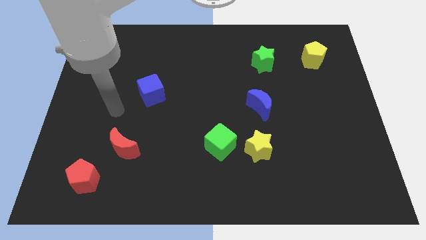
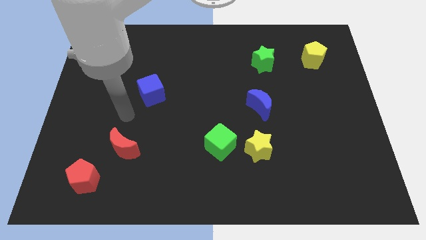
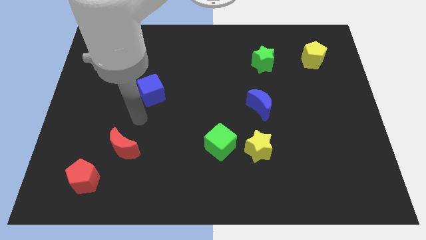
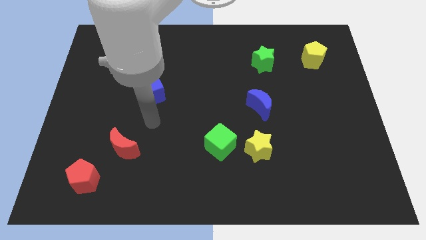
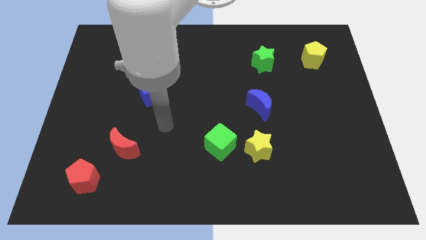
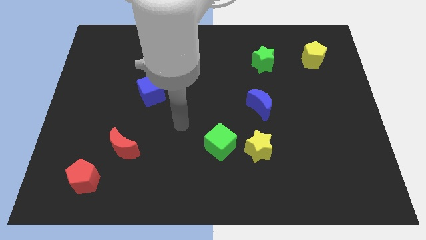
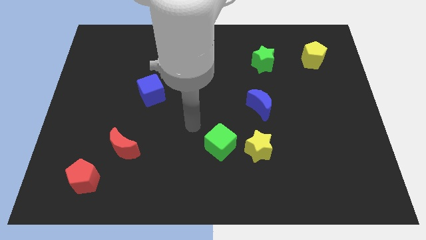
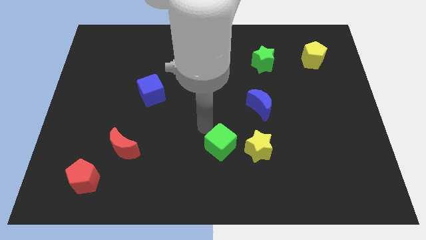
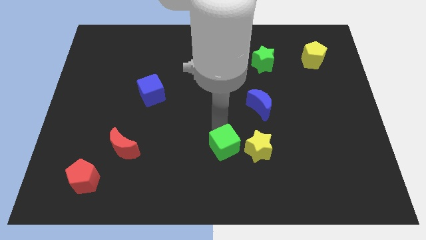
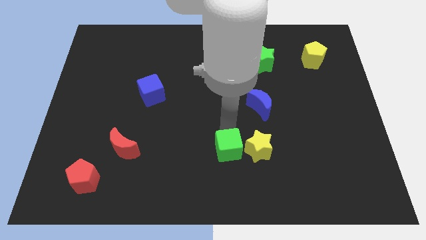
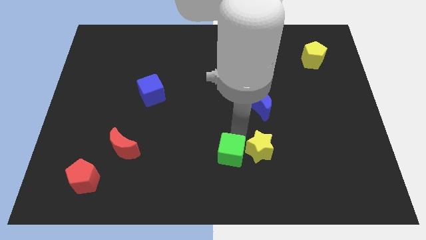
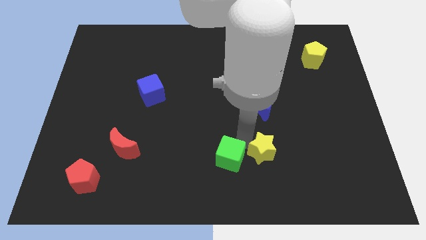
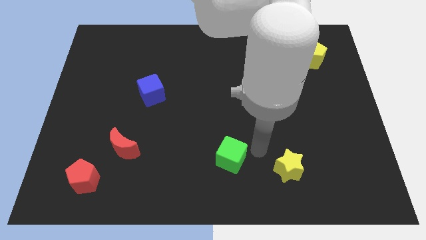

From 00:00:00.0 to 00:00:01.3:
separate the green cube from the yellow star

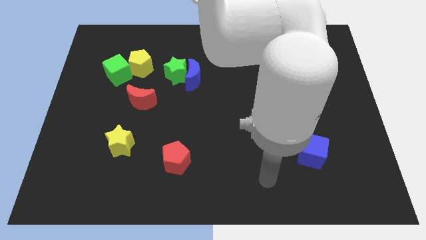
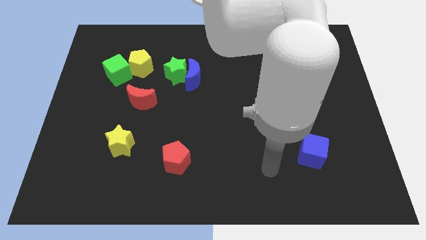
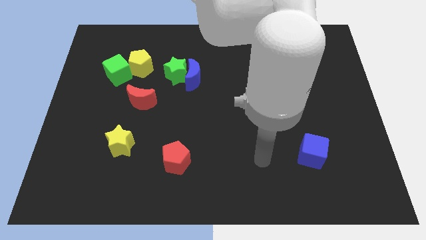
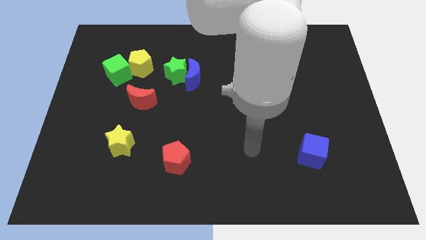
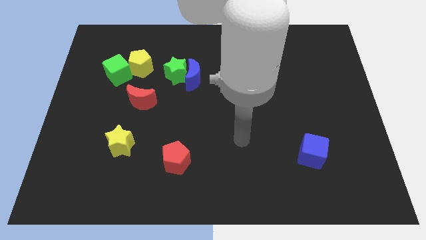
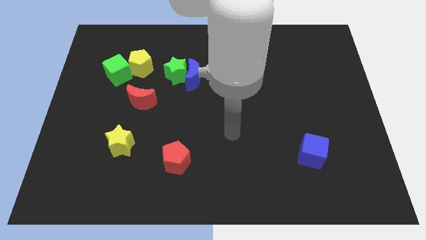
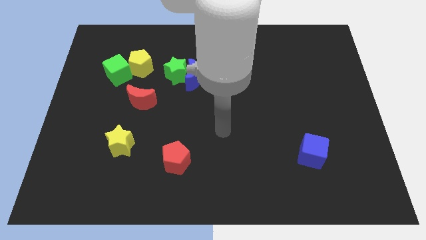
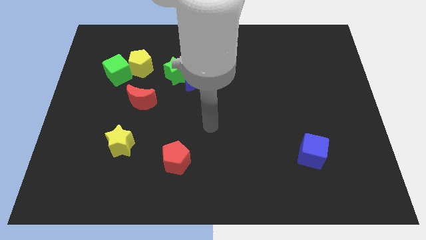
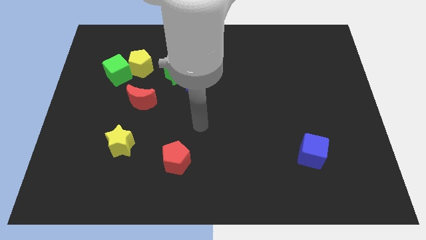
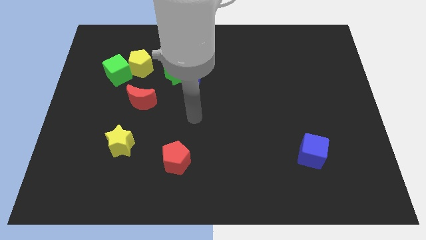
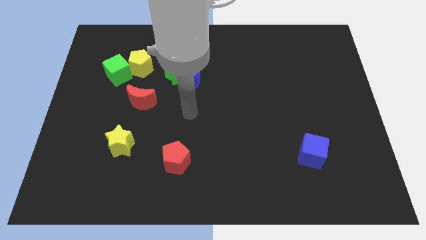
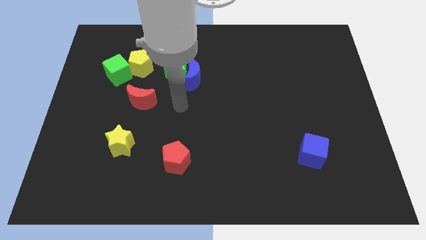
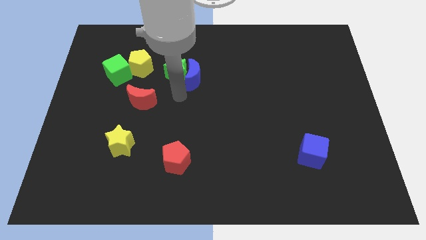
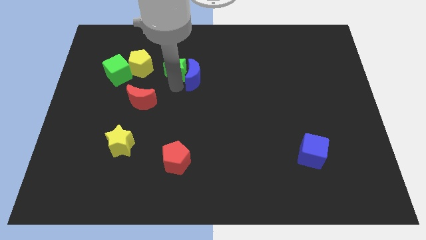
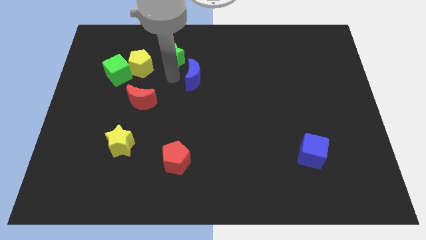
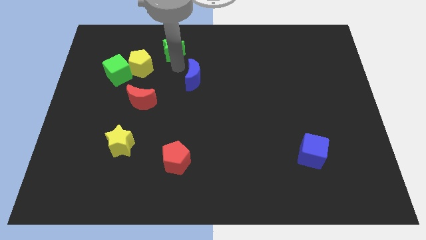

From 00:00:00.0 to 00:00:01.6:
pull the blue moon apart from the green star

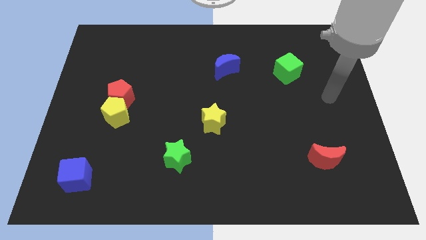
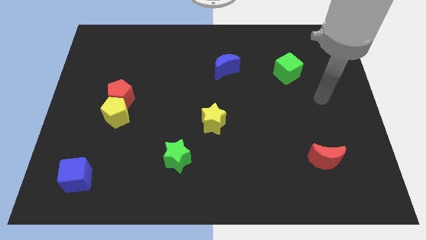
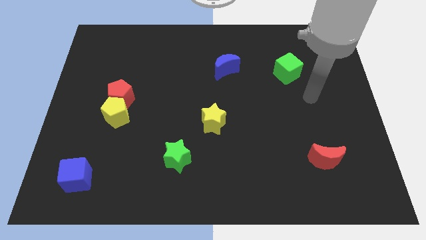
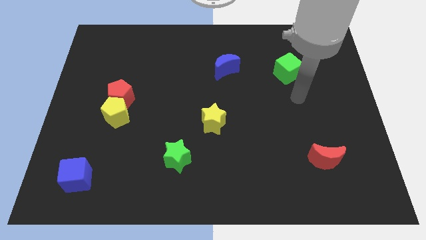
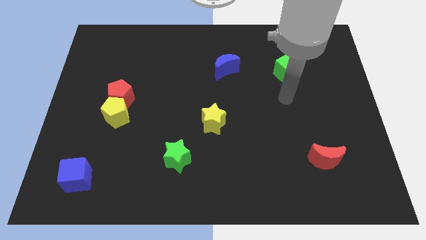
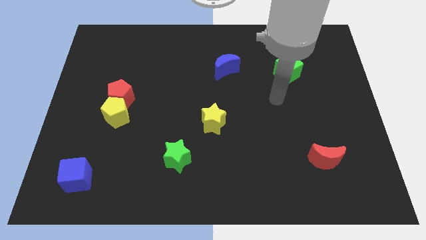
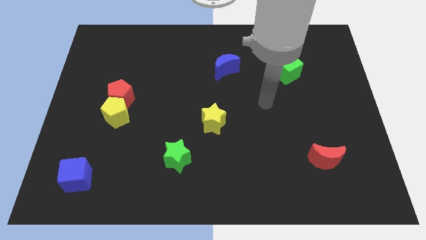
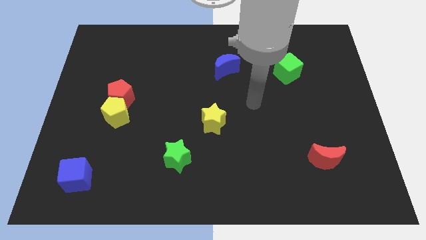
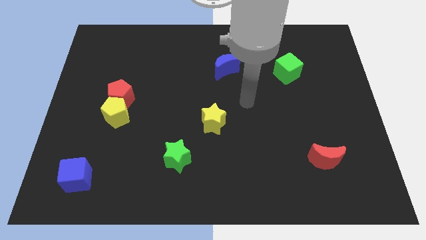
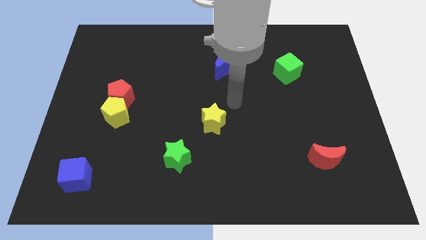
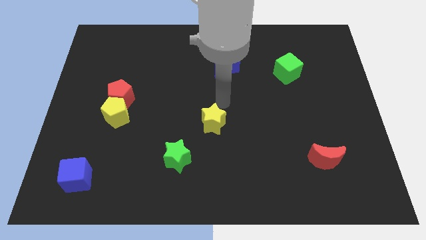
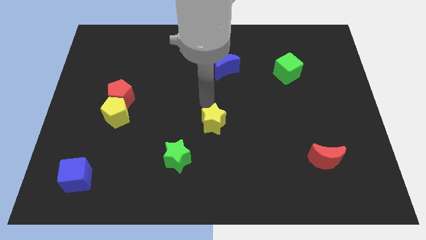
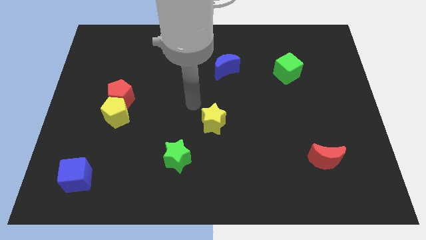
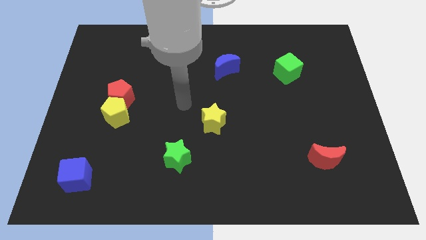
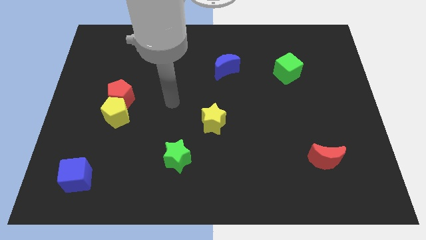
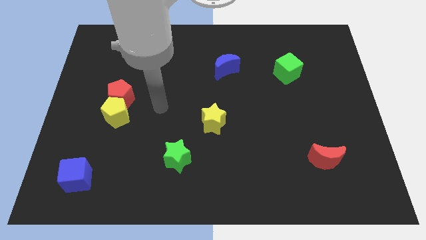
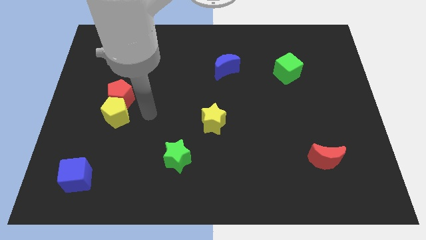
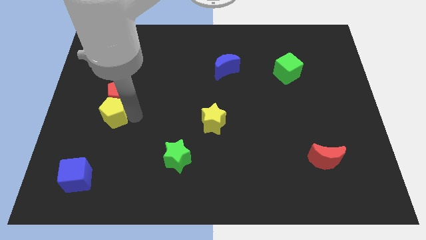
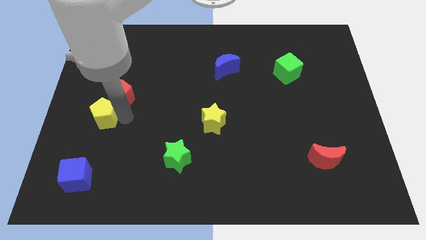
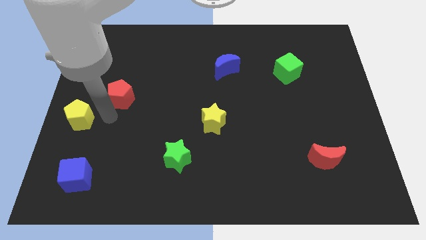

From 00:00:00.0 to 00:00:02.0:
pull the red pentagon apart from the yellow pentagon

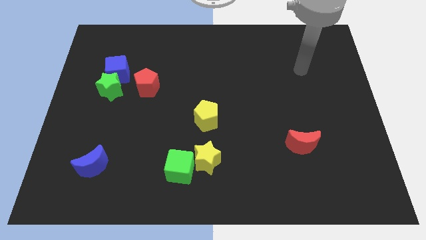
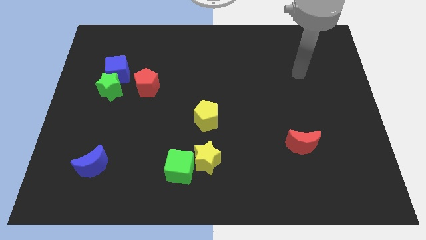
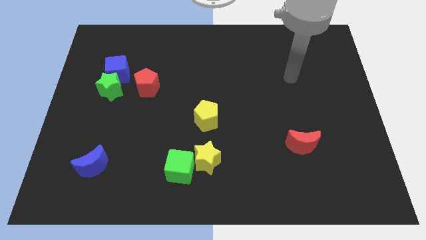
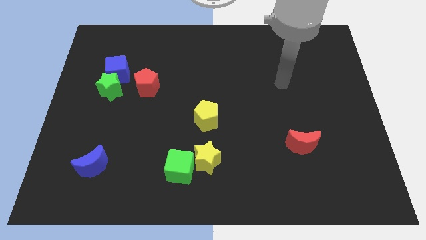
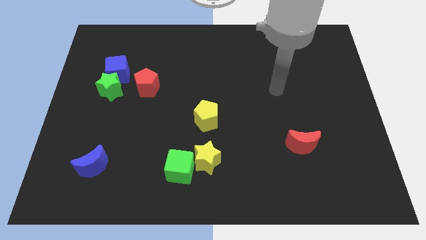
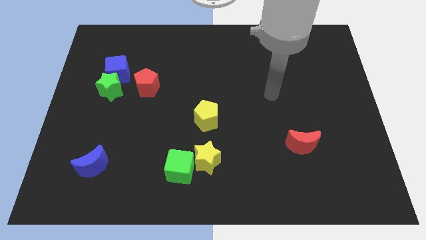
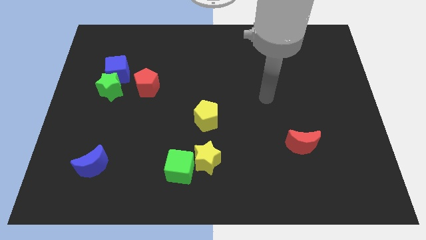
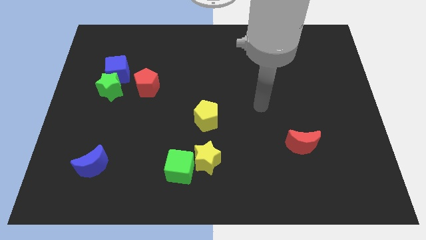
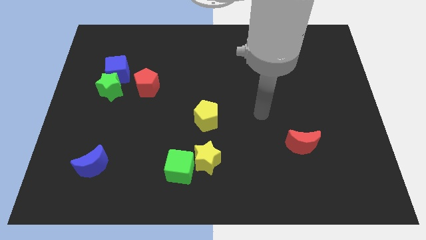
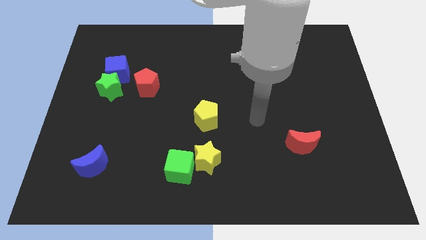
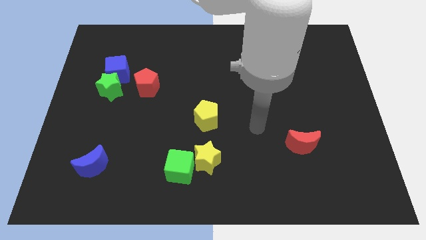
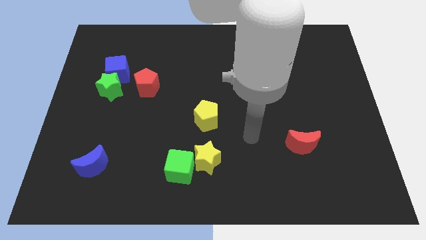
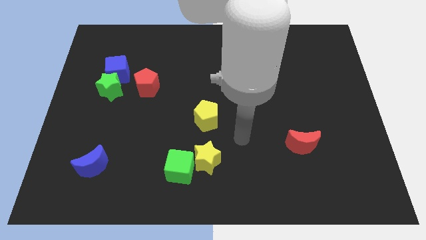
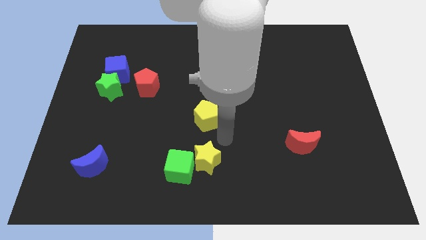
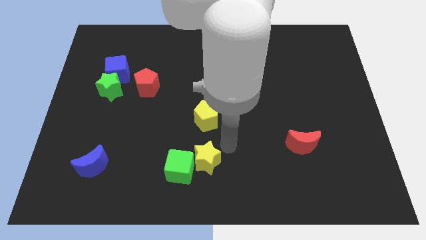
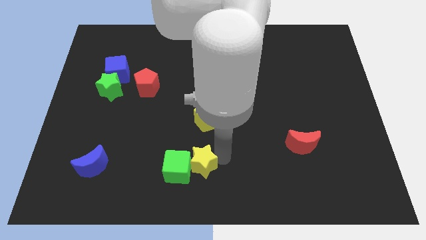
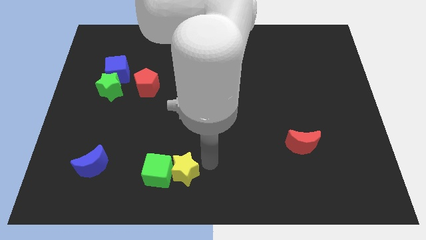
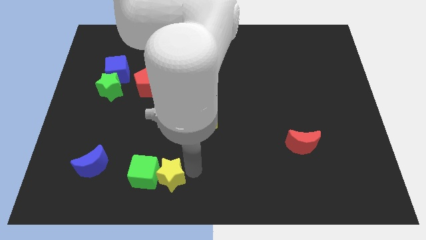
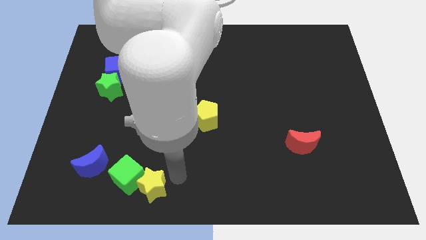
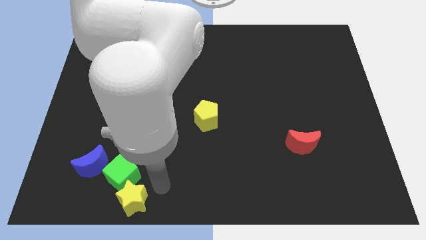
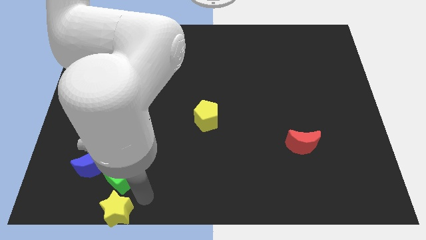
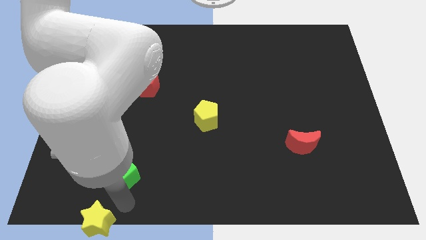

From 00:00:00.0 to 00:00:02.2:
pull the green cube apart from the yellow star

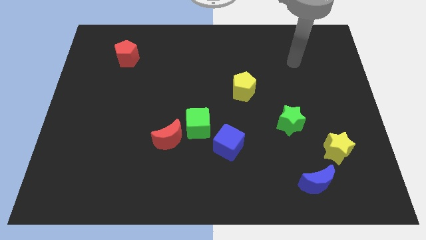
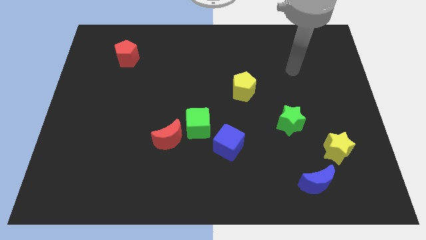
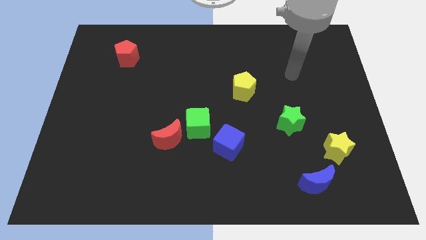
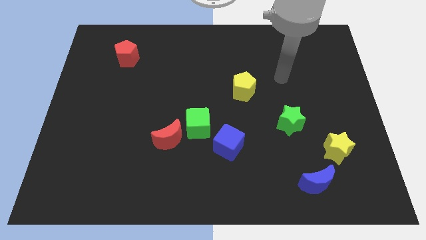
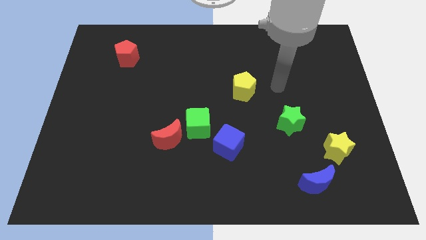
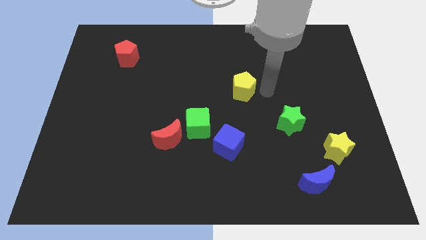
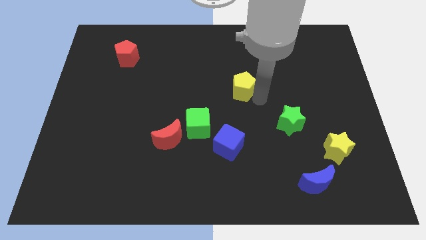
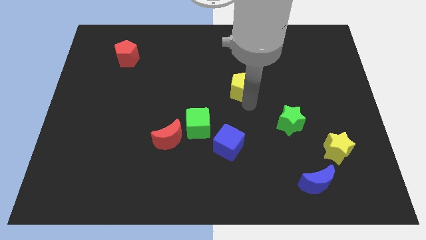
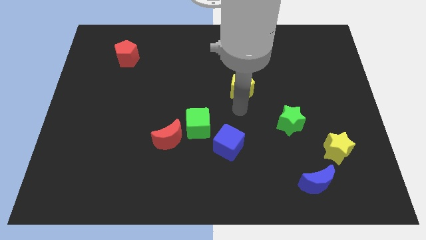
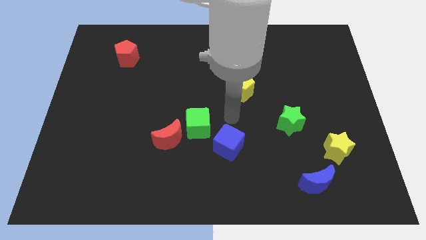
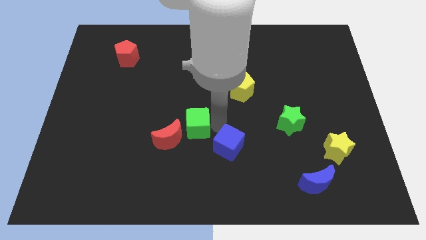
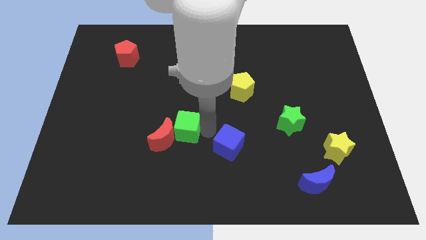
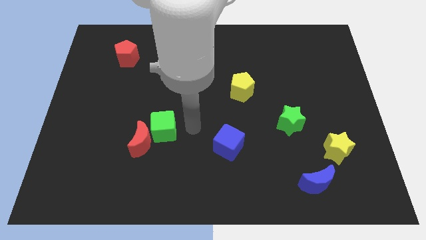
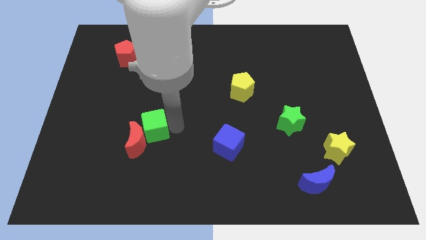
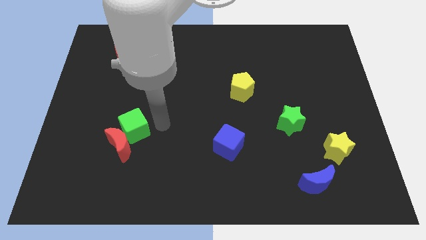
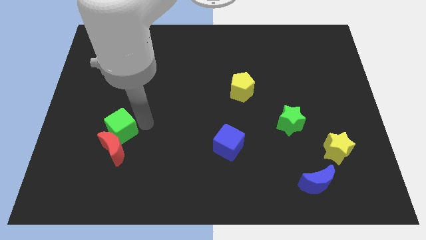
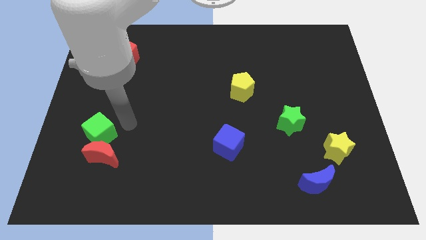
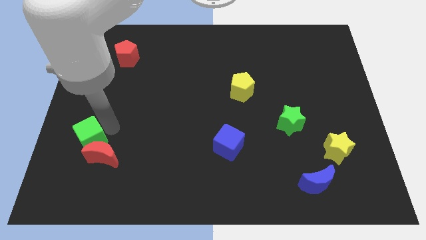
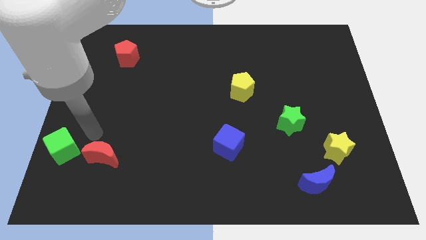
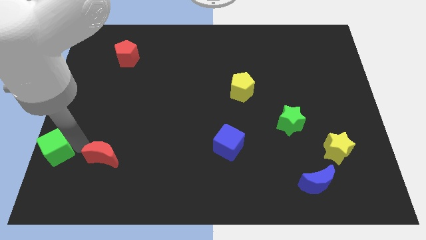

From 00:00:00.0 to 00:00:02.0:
separate the red moon from the green cube
